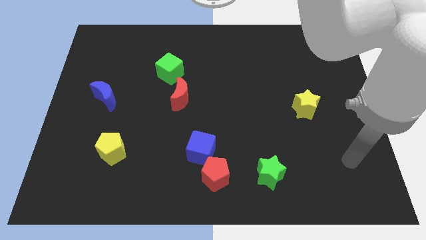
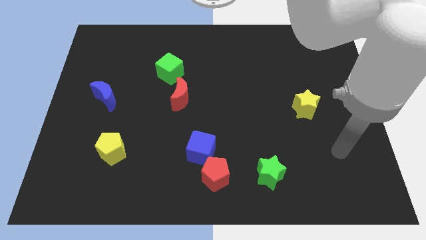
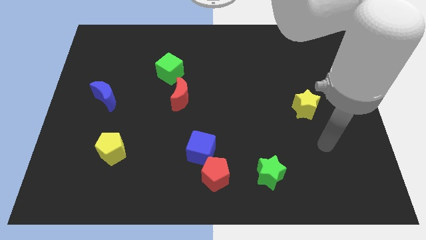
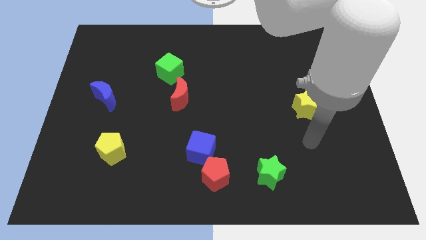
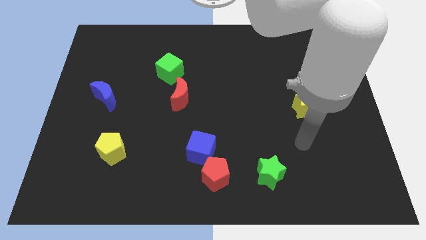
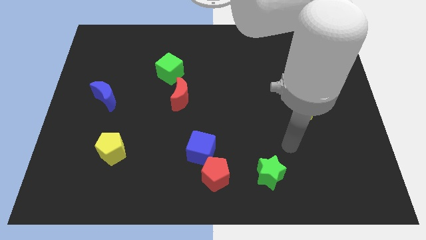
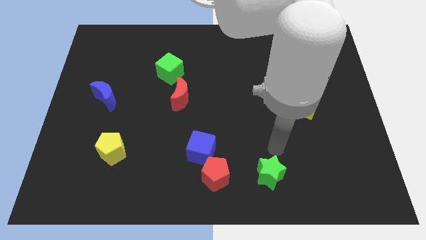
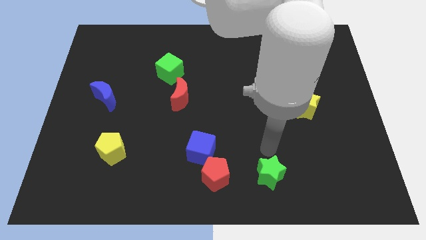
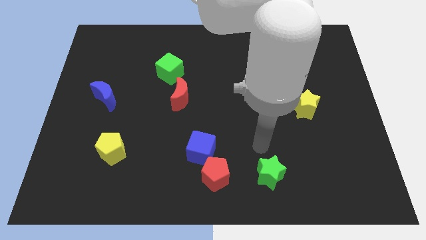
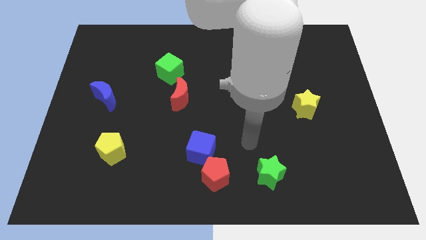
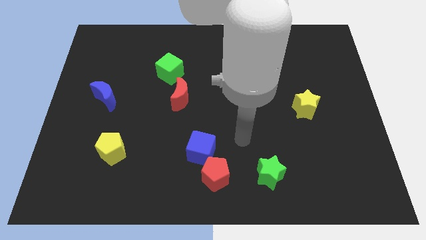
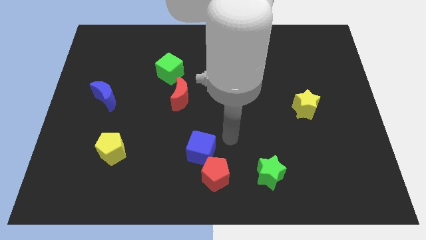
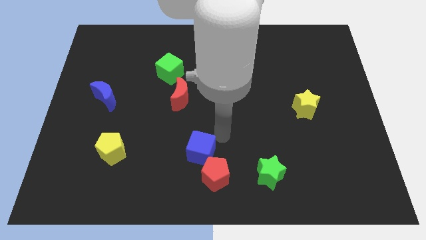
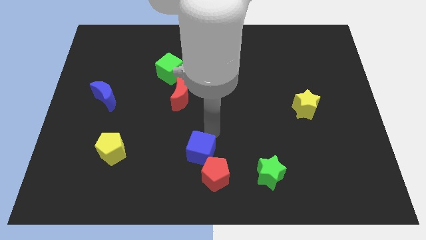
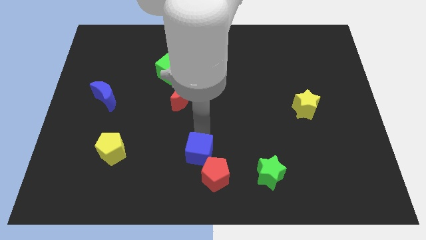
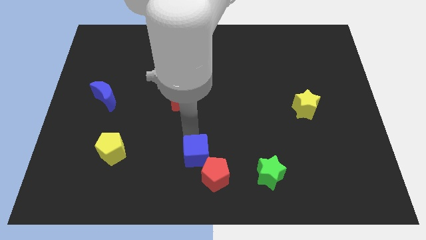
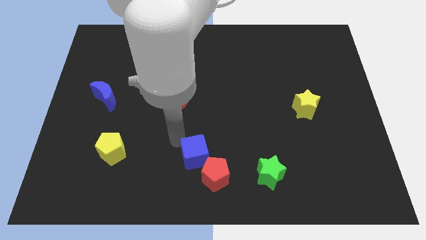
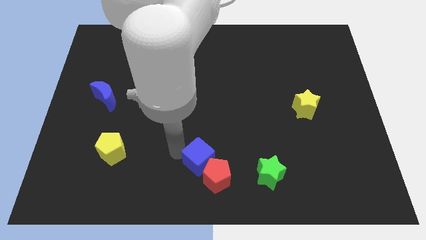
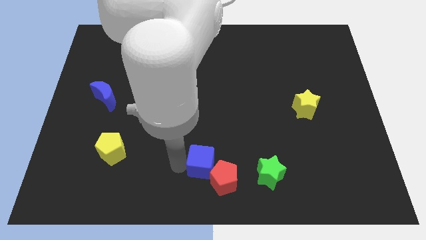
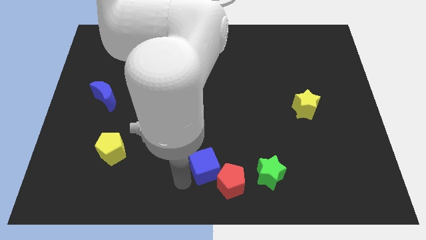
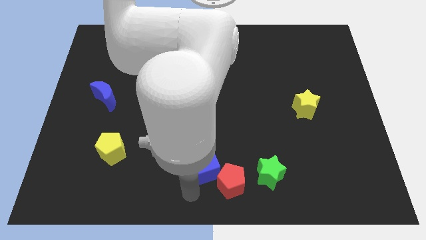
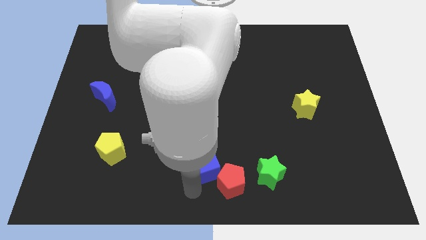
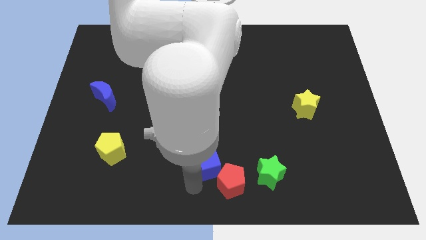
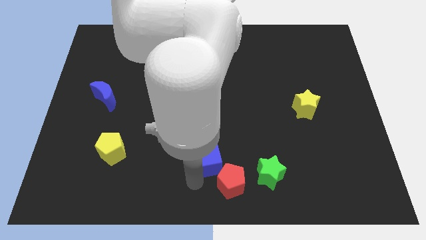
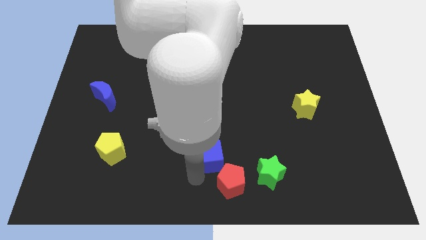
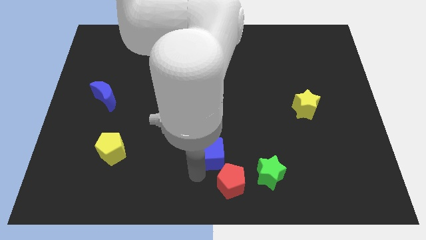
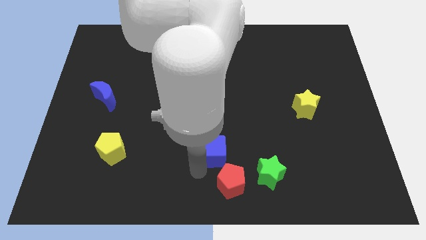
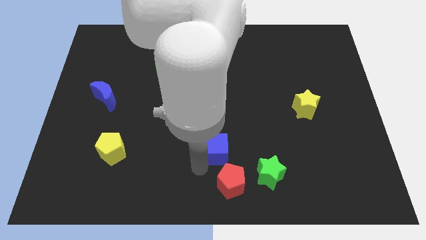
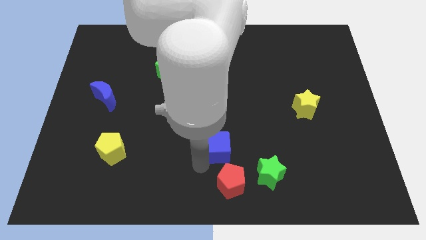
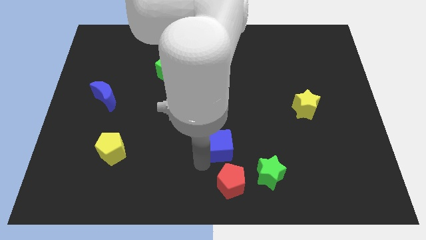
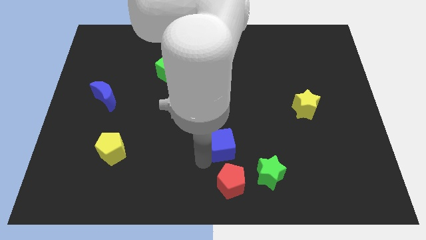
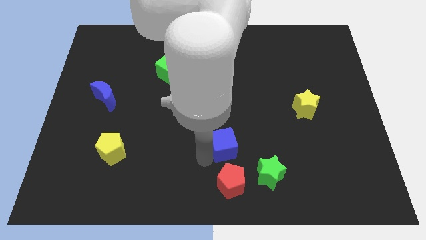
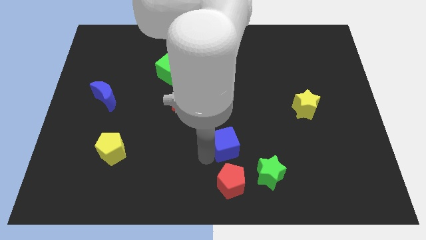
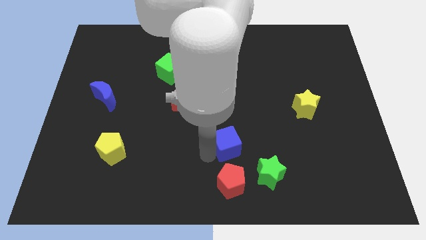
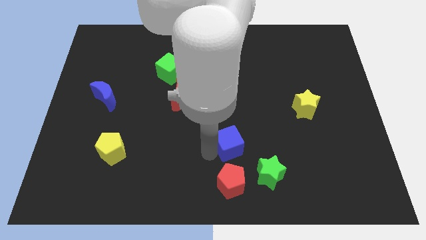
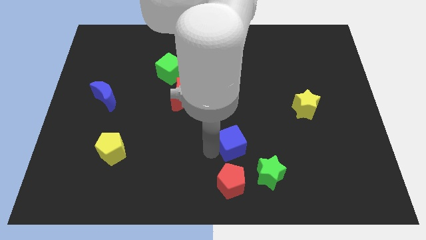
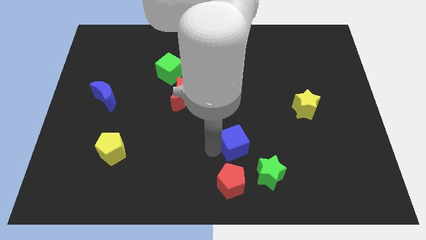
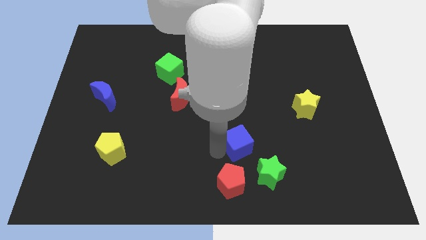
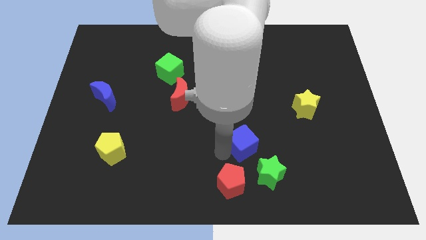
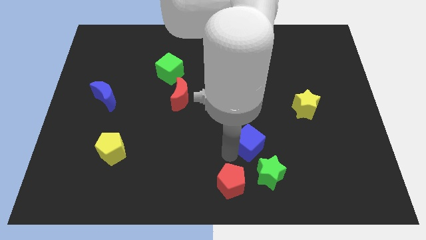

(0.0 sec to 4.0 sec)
slide the blue cube up and right slightly

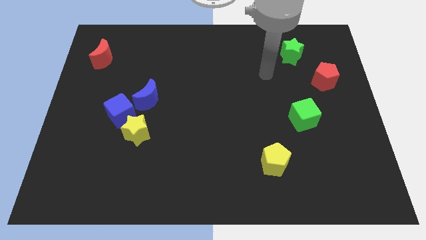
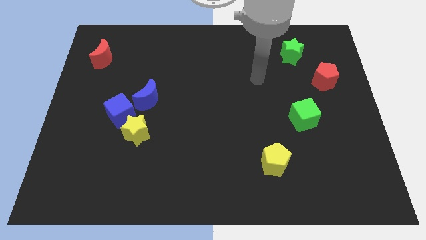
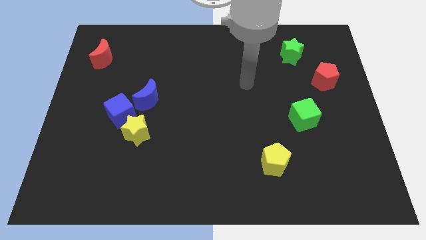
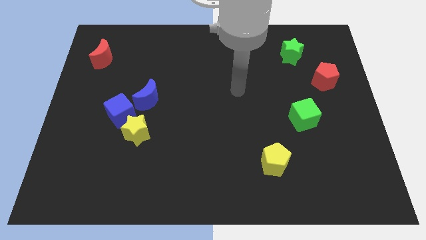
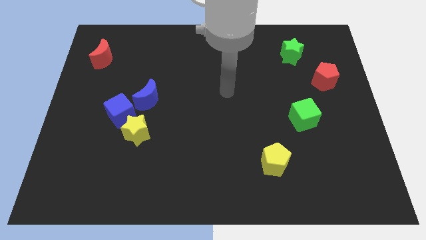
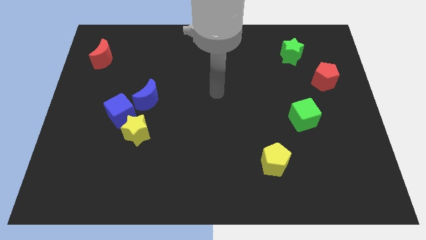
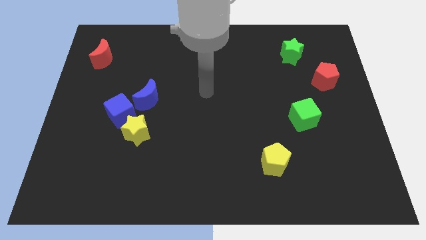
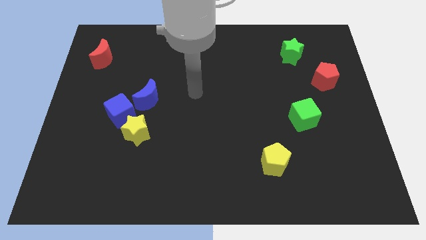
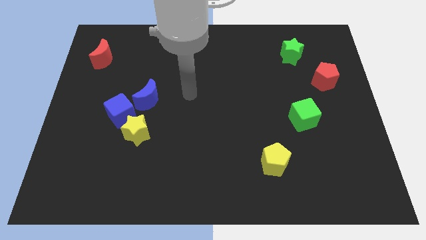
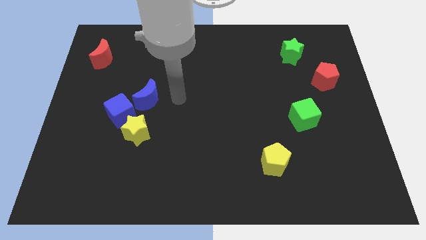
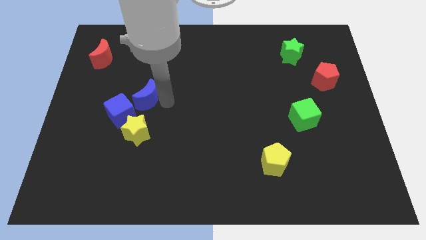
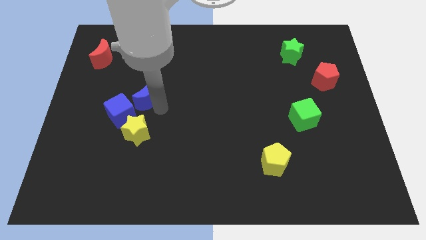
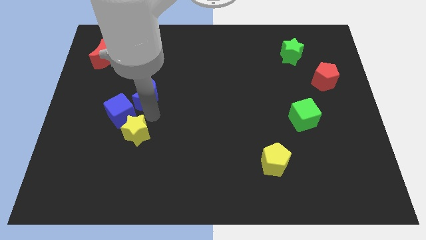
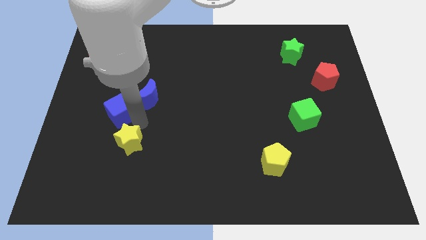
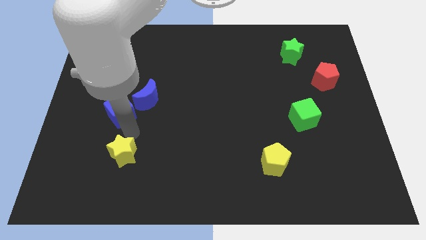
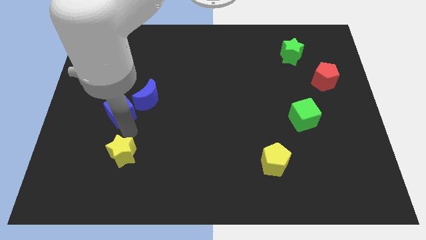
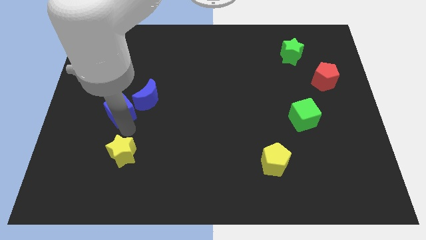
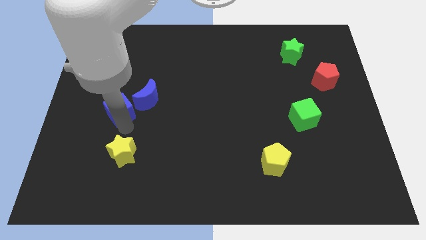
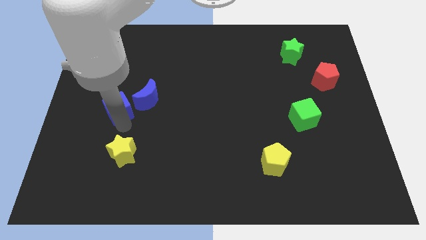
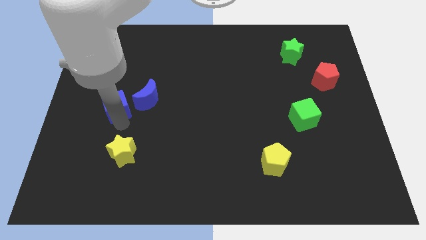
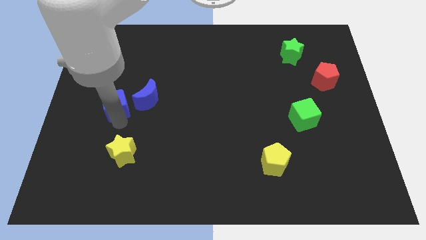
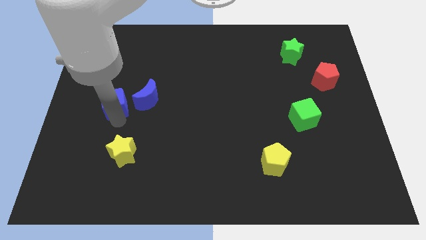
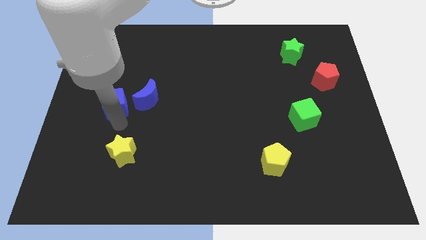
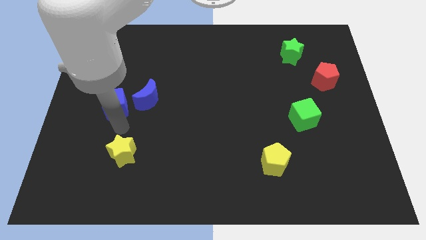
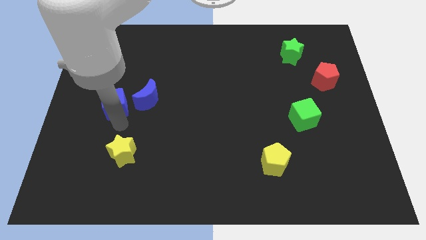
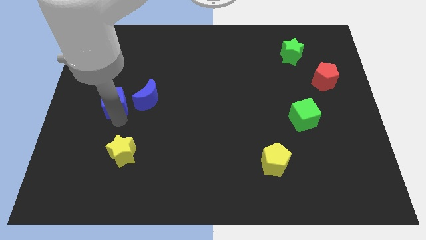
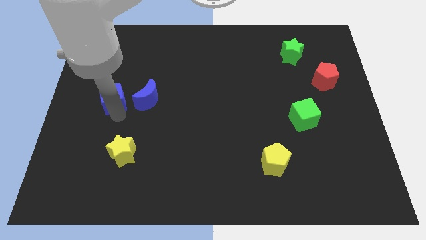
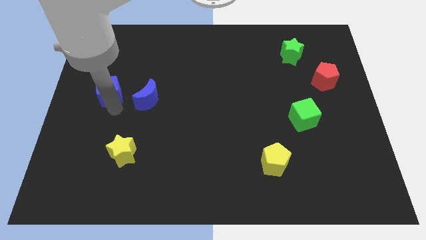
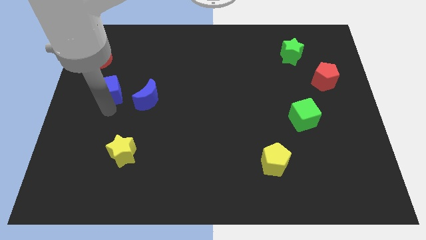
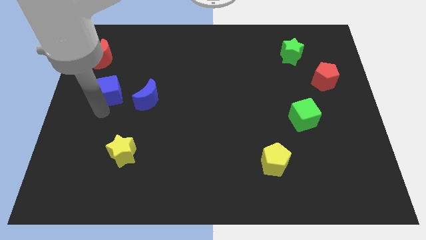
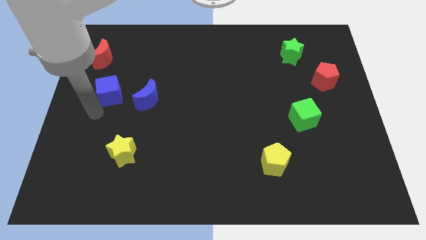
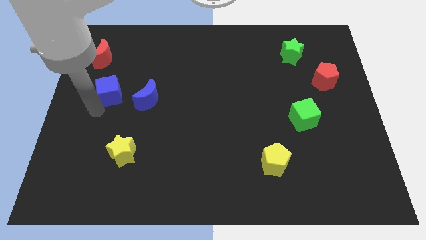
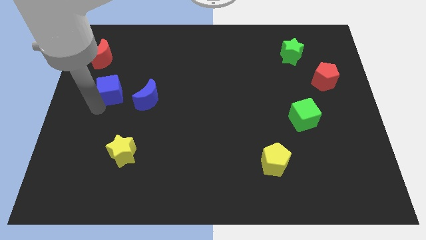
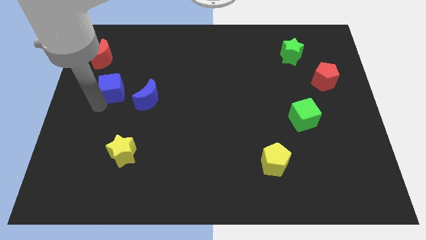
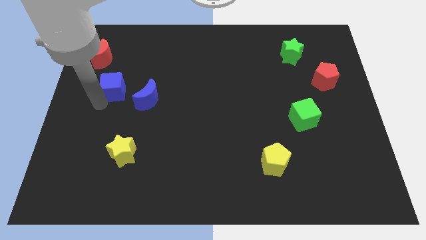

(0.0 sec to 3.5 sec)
move the blue cube a little upwards

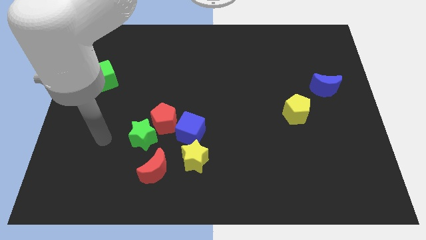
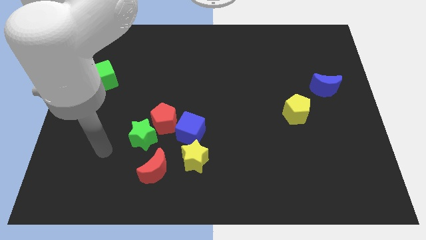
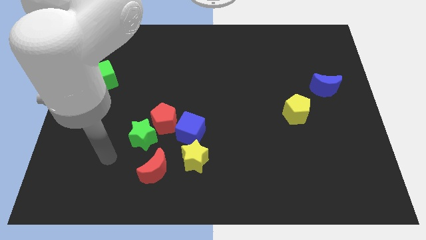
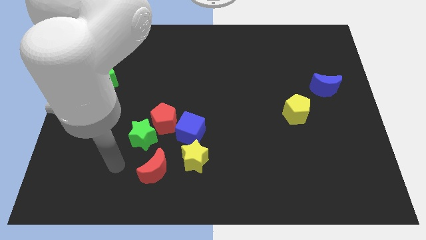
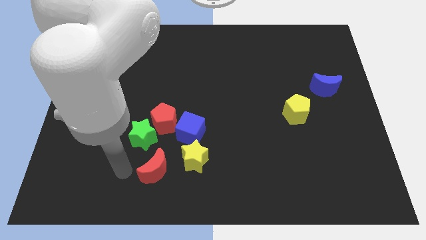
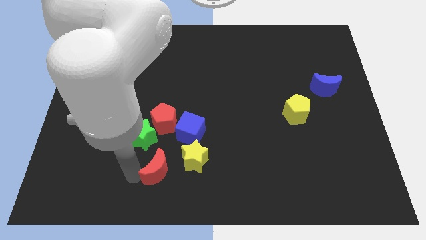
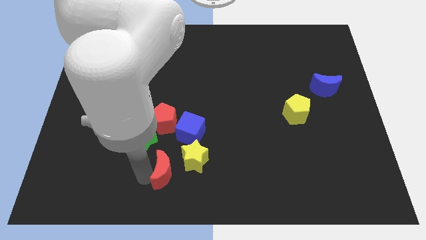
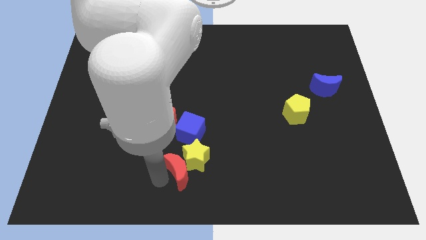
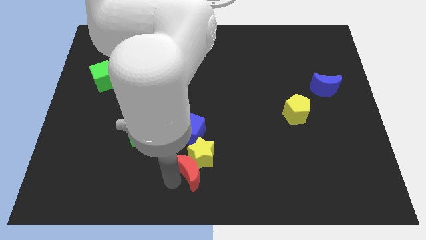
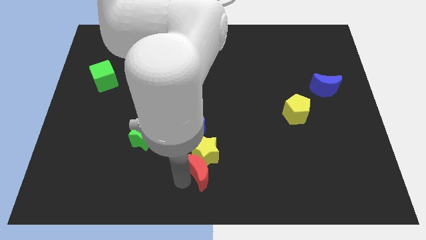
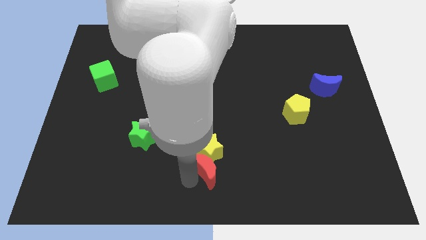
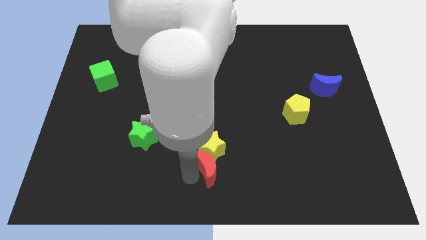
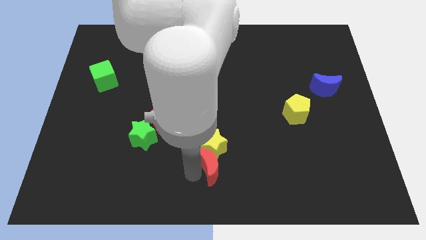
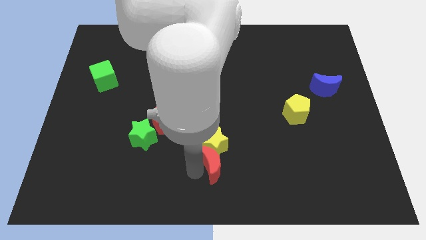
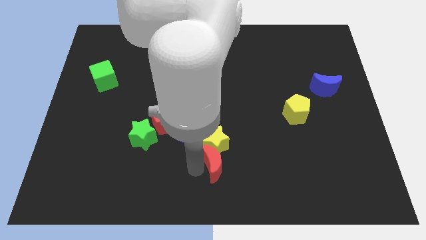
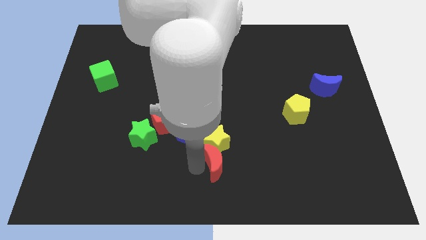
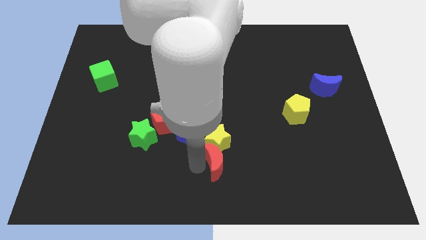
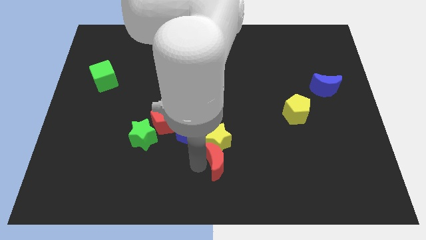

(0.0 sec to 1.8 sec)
slightly slide the yellow star diagonally upwards and to the right
